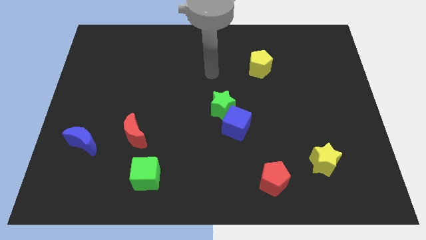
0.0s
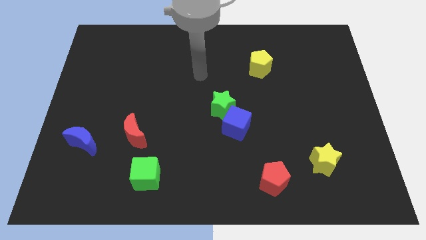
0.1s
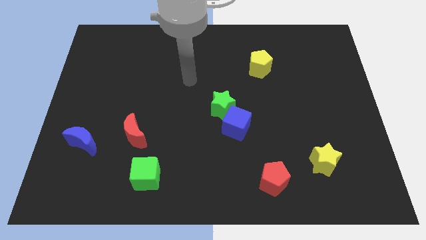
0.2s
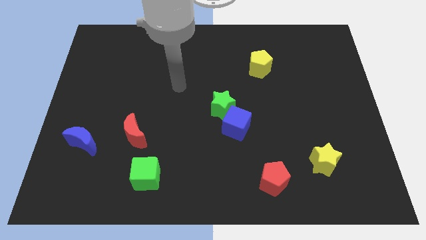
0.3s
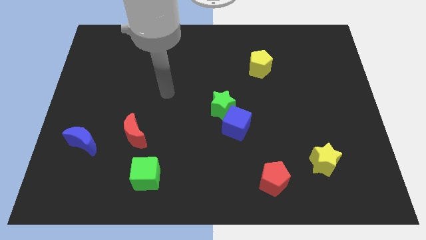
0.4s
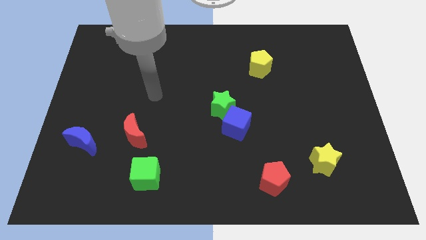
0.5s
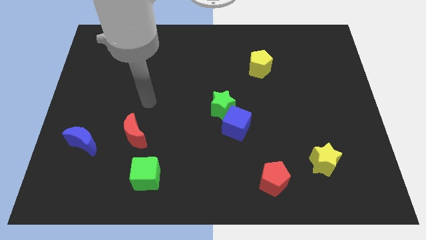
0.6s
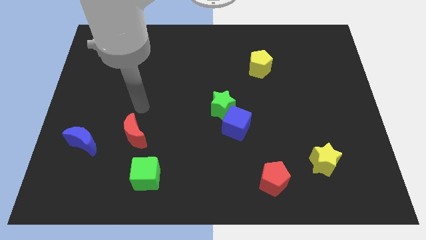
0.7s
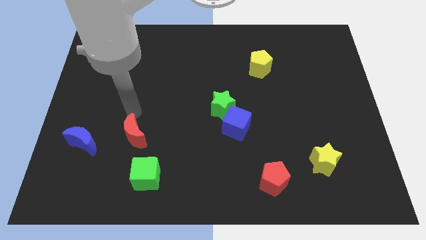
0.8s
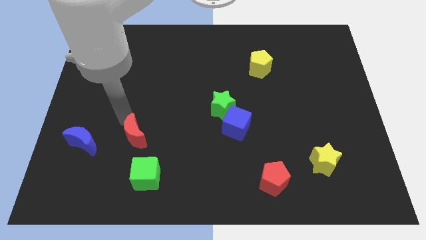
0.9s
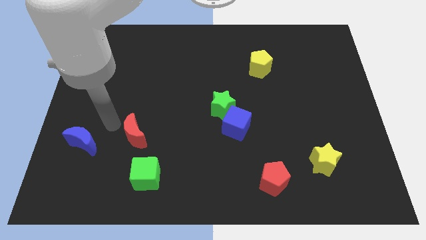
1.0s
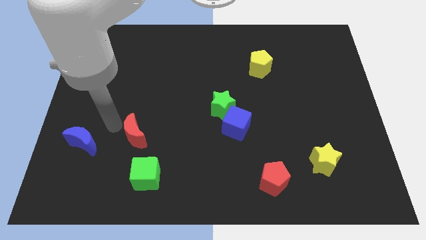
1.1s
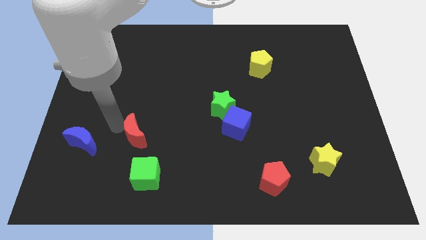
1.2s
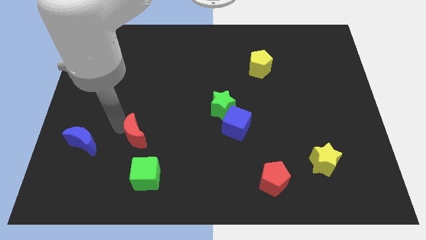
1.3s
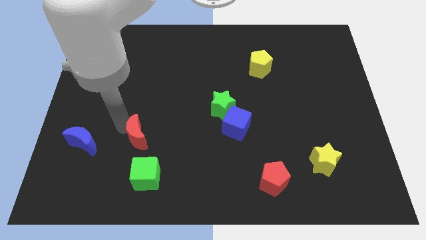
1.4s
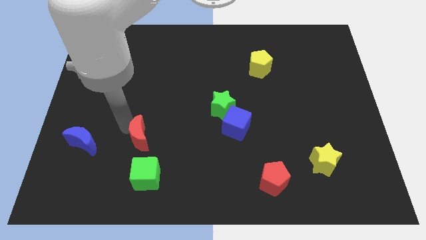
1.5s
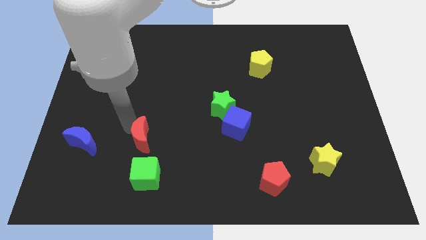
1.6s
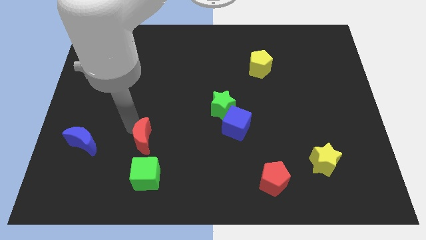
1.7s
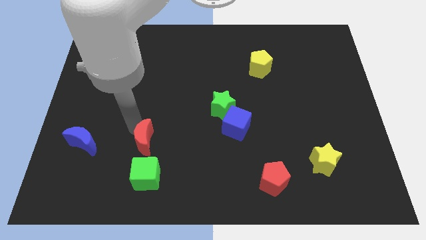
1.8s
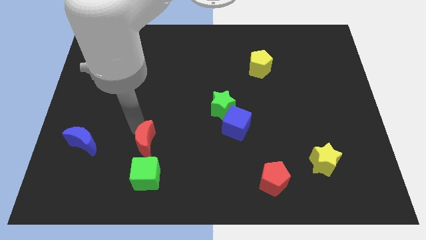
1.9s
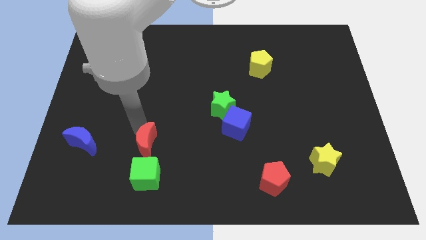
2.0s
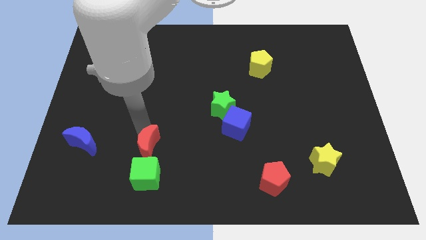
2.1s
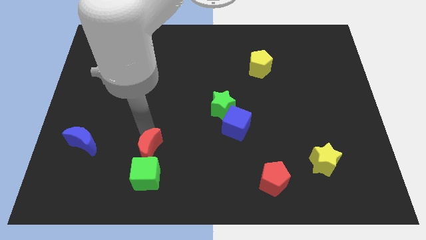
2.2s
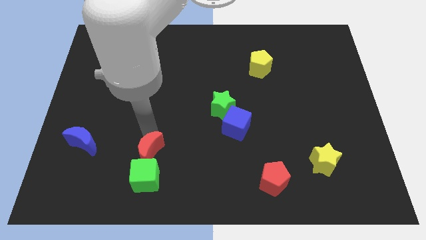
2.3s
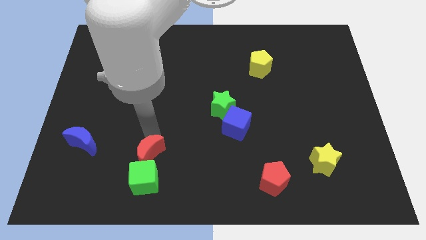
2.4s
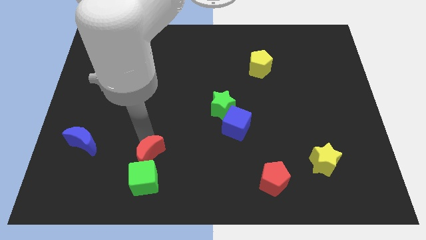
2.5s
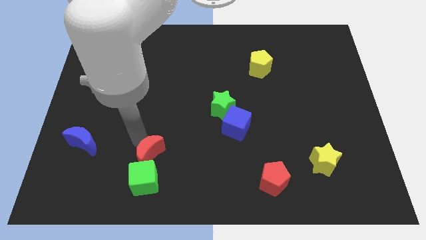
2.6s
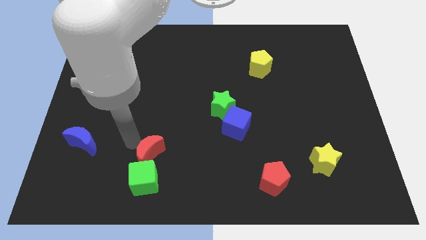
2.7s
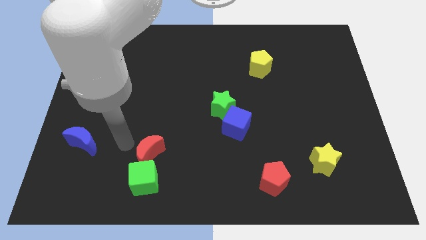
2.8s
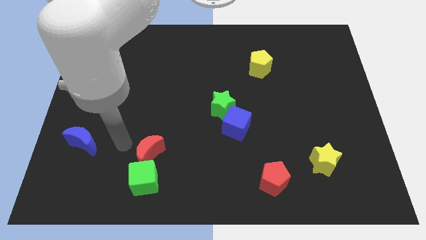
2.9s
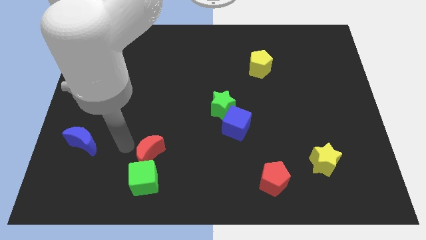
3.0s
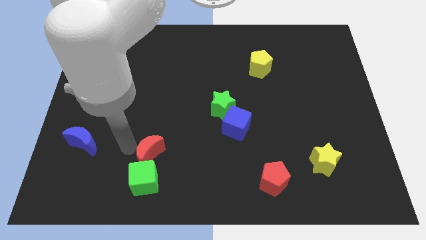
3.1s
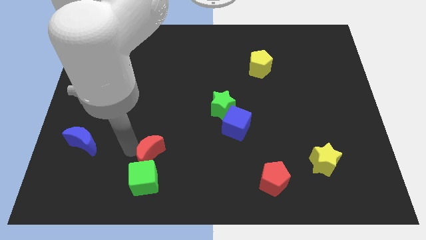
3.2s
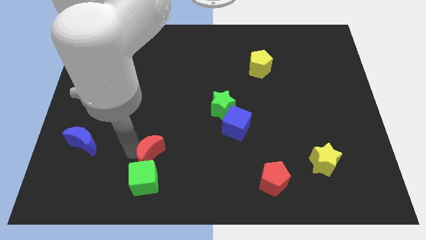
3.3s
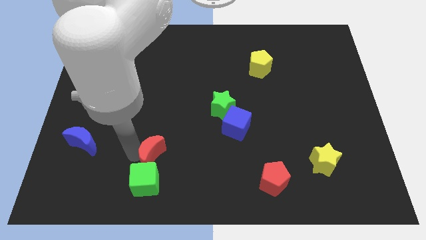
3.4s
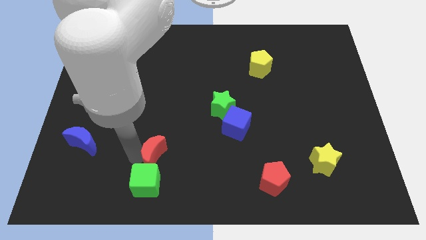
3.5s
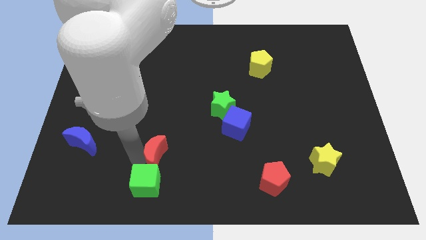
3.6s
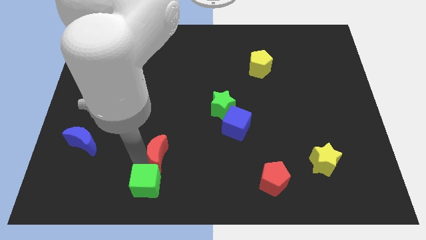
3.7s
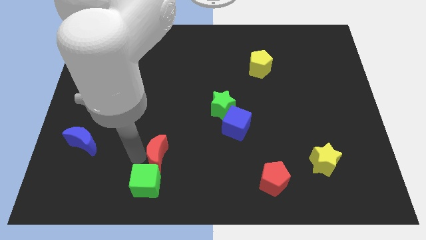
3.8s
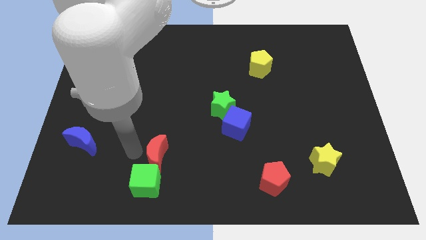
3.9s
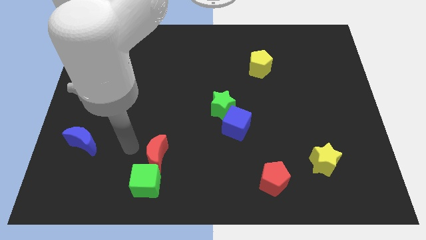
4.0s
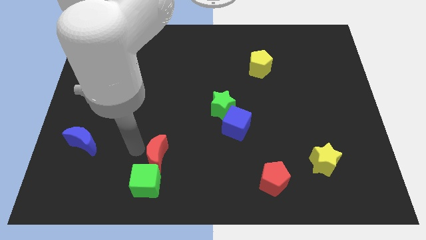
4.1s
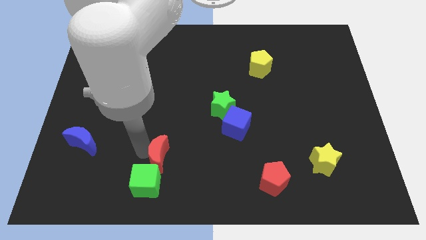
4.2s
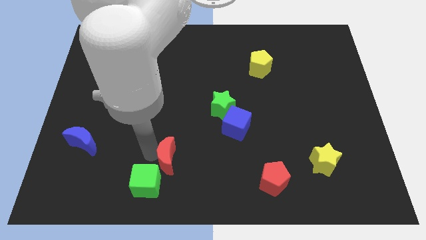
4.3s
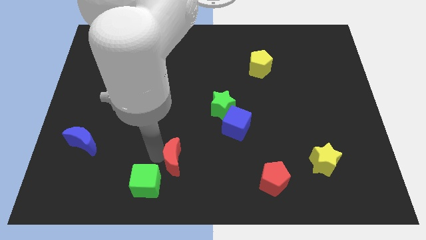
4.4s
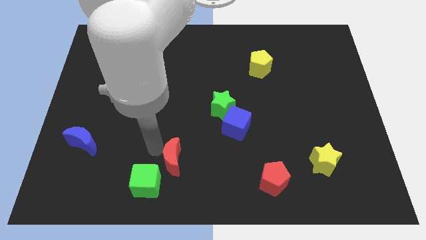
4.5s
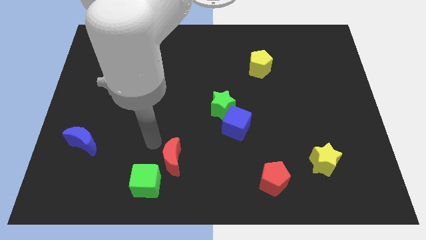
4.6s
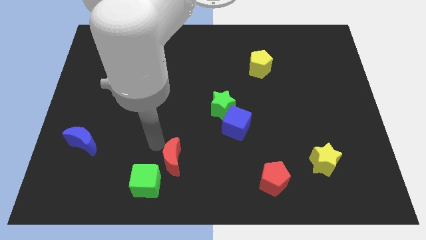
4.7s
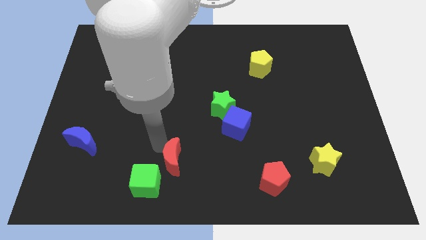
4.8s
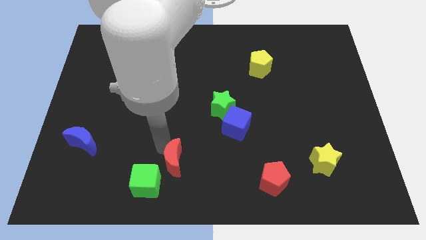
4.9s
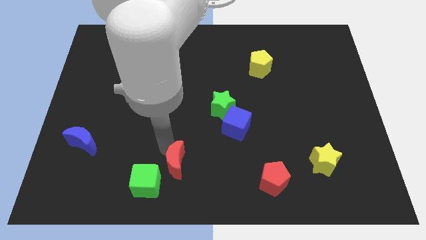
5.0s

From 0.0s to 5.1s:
push the red moon just right of the green cube

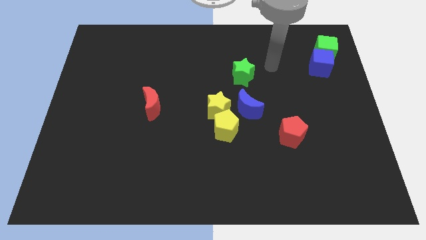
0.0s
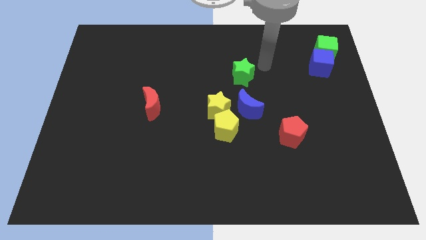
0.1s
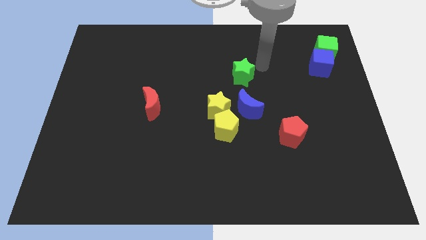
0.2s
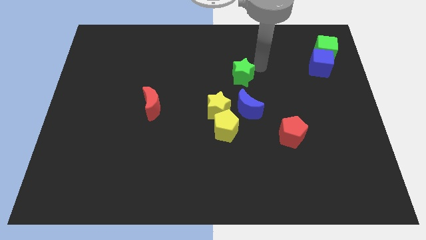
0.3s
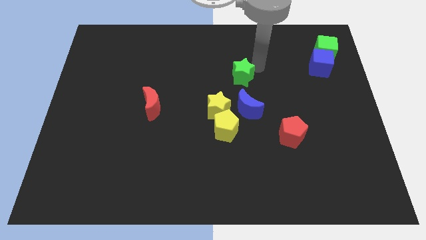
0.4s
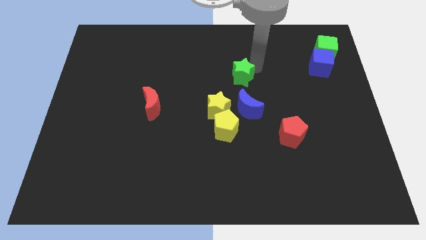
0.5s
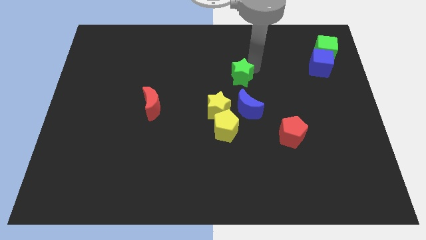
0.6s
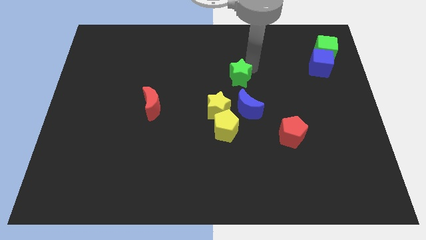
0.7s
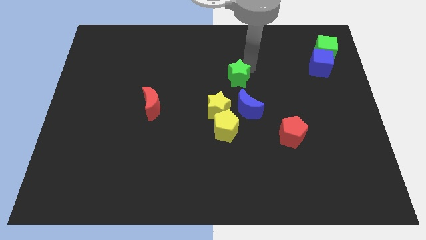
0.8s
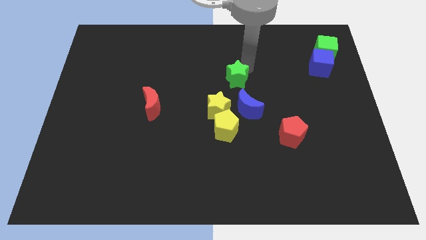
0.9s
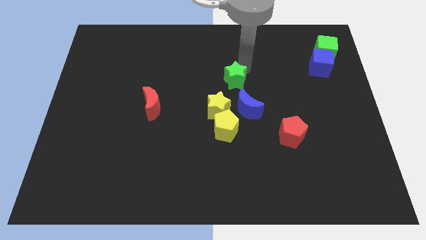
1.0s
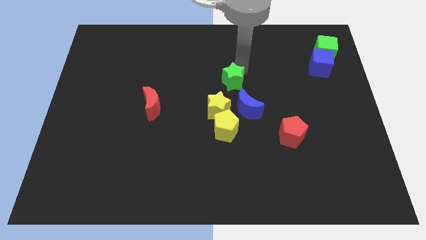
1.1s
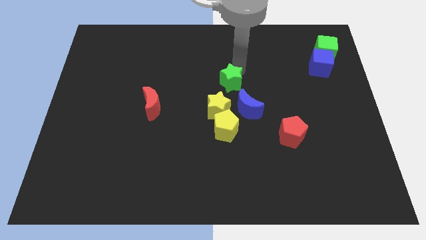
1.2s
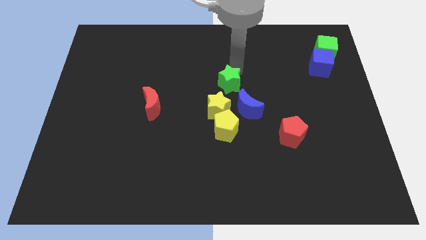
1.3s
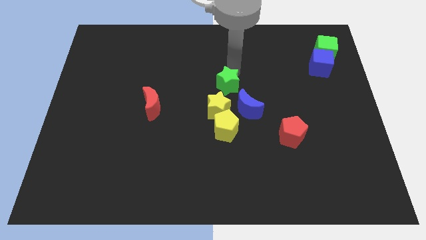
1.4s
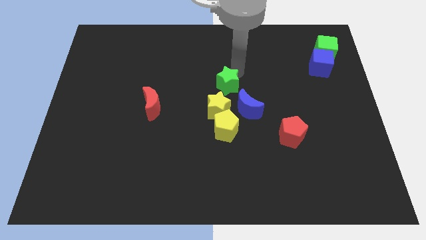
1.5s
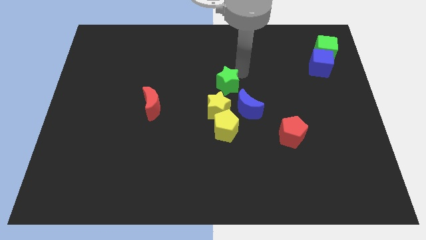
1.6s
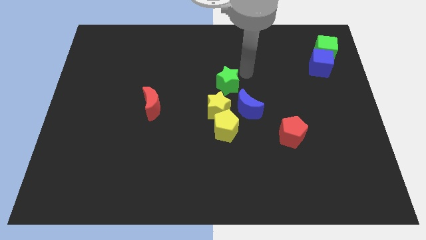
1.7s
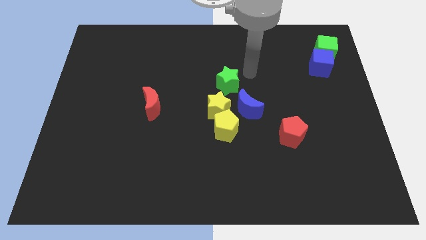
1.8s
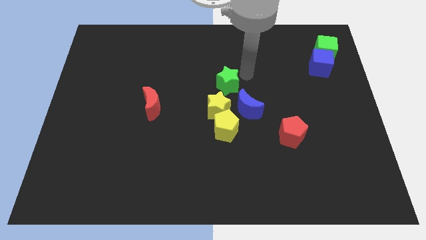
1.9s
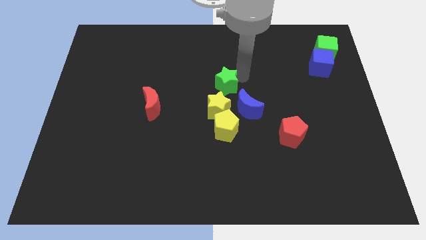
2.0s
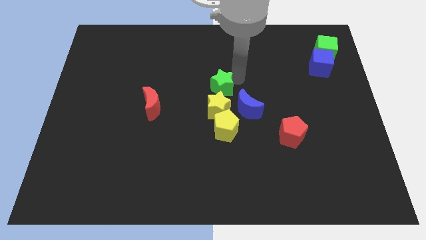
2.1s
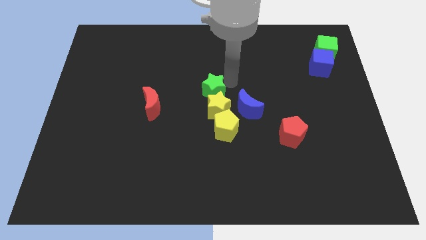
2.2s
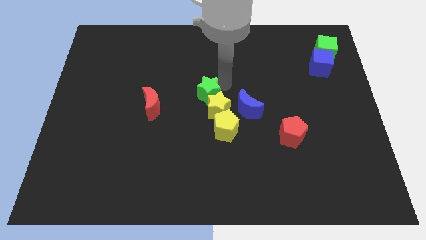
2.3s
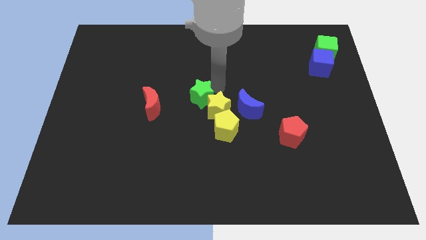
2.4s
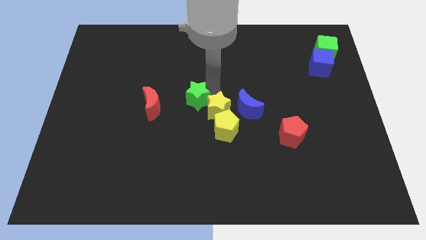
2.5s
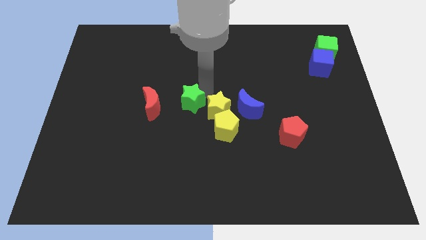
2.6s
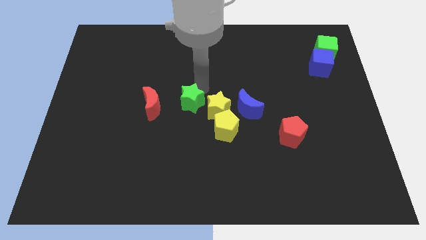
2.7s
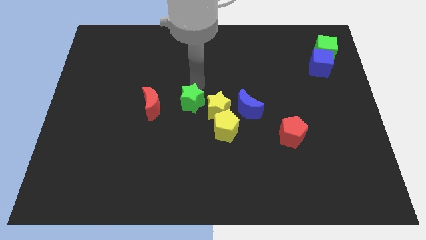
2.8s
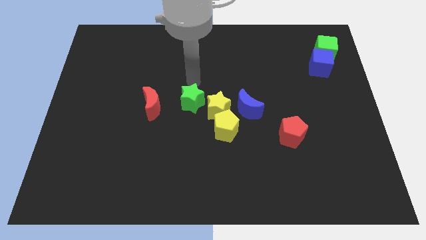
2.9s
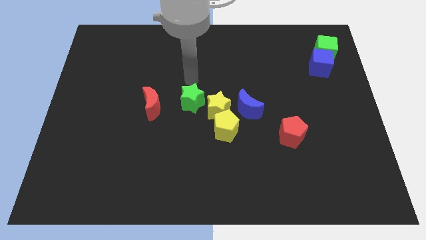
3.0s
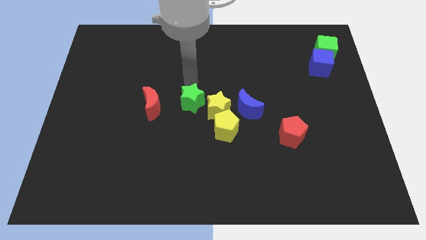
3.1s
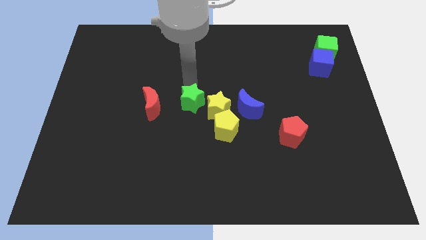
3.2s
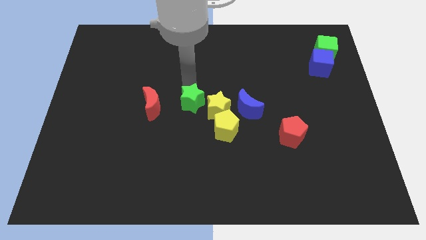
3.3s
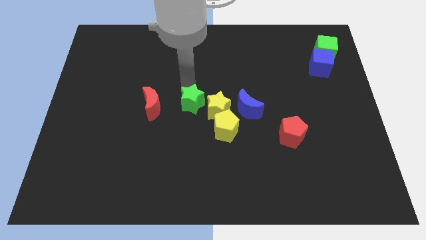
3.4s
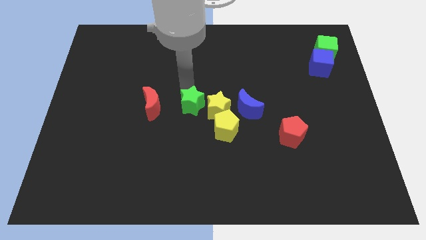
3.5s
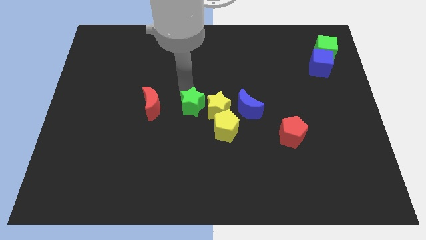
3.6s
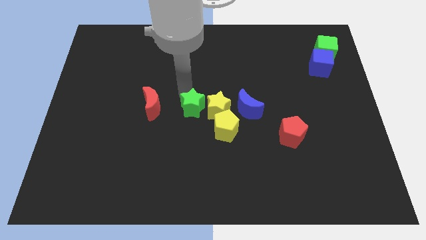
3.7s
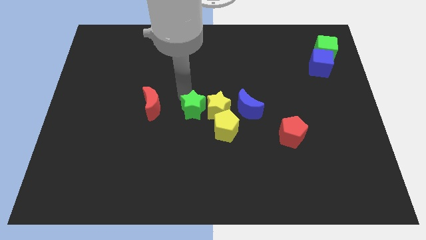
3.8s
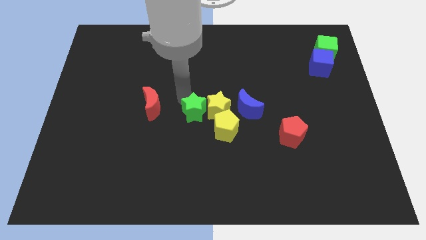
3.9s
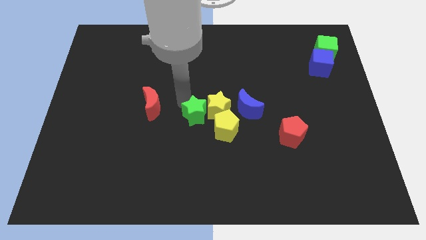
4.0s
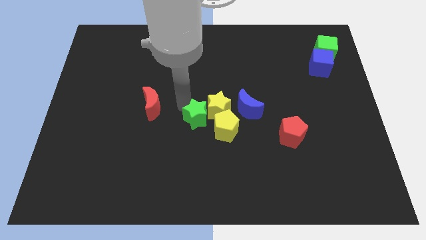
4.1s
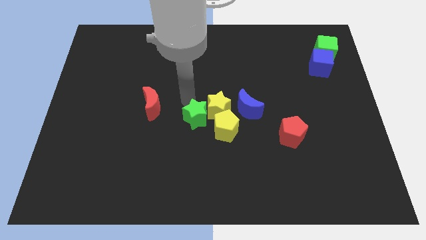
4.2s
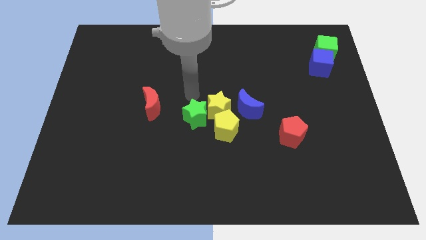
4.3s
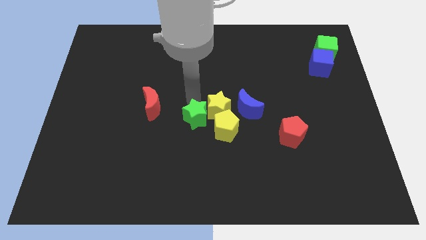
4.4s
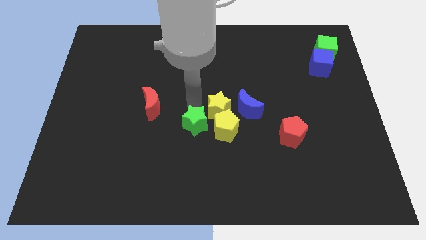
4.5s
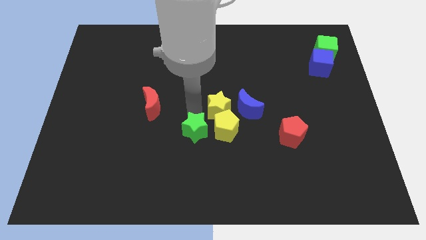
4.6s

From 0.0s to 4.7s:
put the green star to the bottom left side of the yellow pentagon
